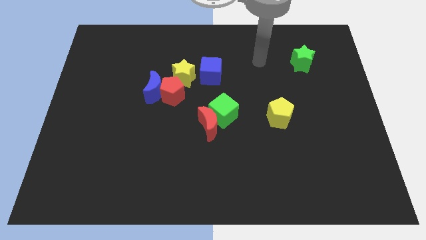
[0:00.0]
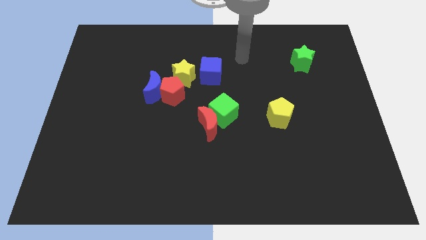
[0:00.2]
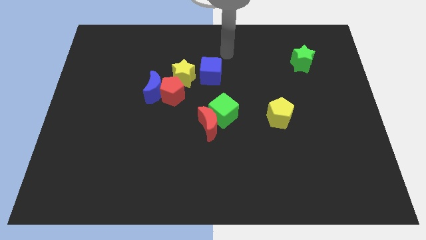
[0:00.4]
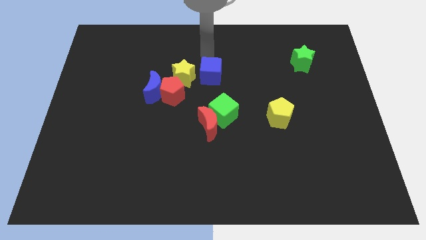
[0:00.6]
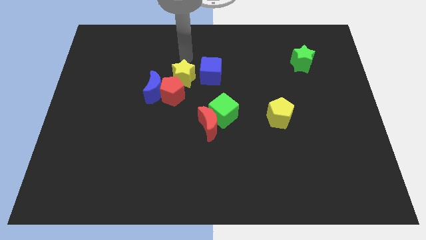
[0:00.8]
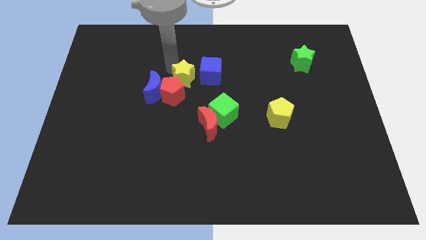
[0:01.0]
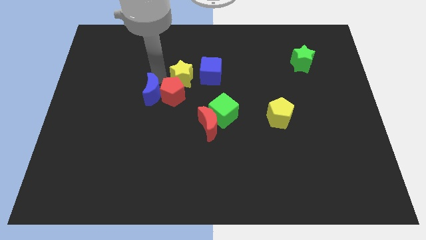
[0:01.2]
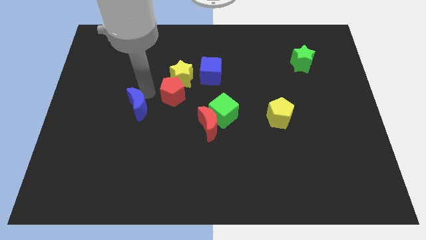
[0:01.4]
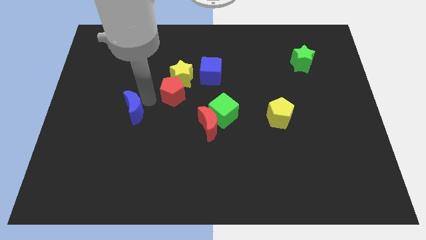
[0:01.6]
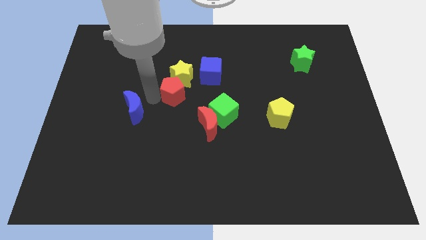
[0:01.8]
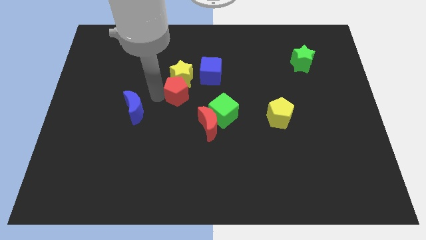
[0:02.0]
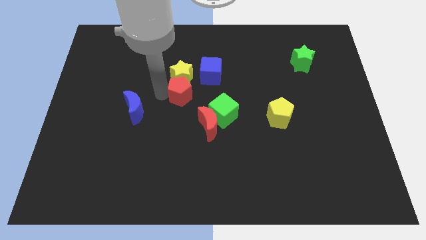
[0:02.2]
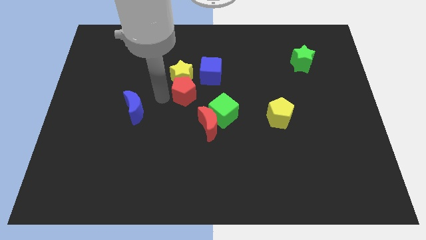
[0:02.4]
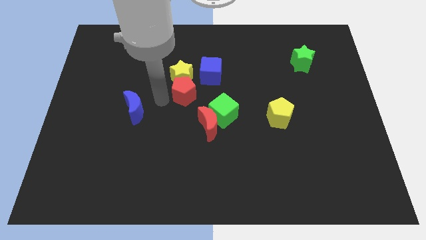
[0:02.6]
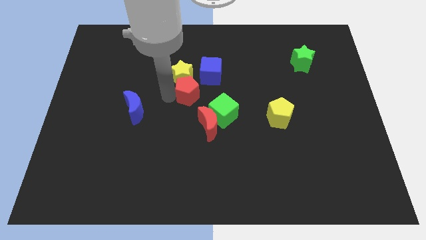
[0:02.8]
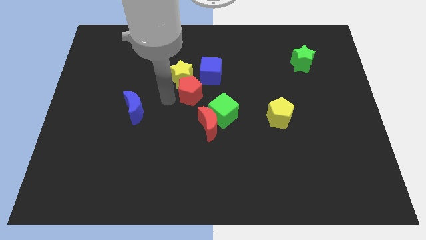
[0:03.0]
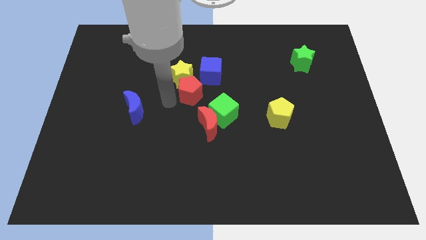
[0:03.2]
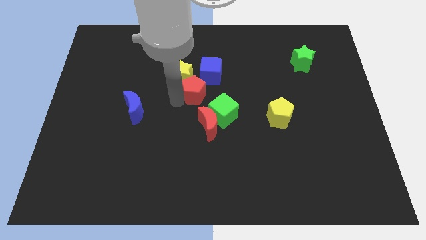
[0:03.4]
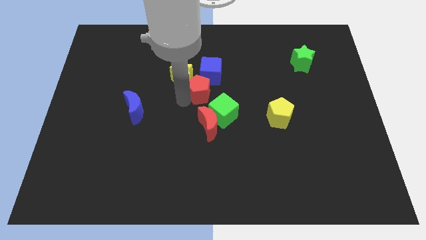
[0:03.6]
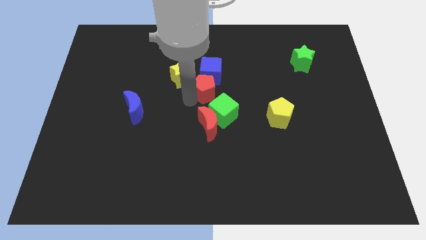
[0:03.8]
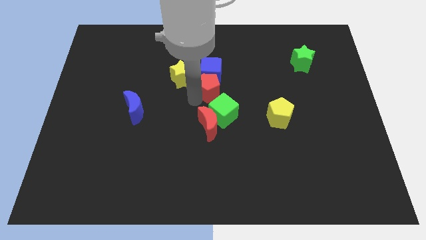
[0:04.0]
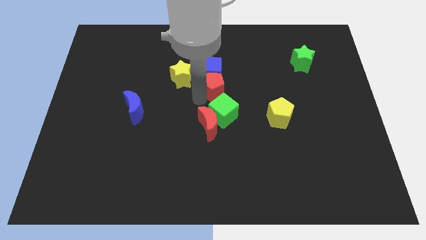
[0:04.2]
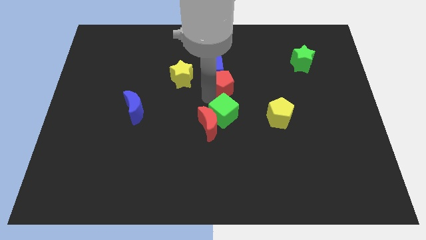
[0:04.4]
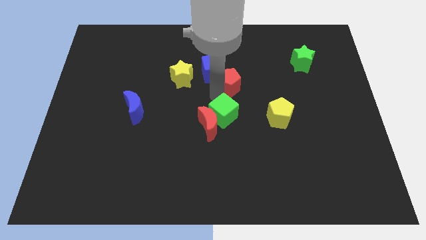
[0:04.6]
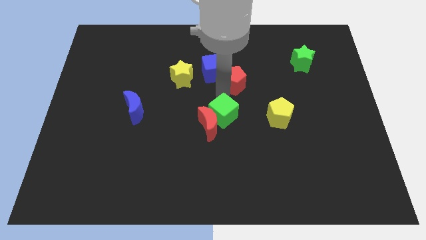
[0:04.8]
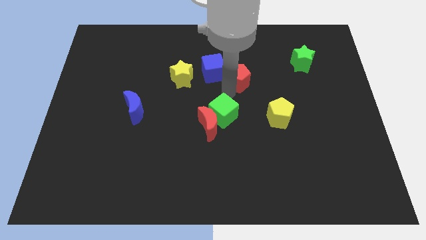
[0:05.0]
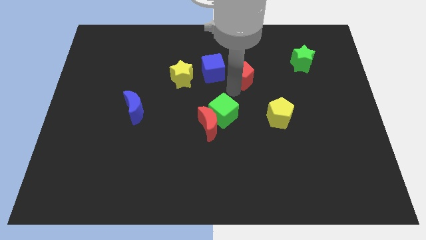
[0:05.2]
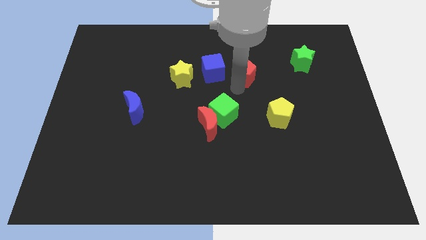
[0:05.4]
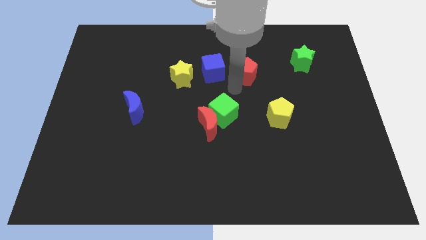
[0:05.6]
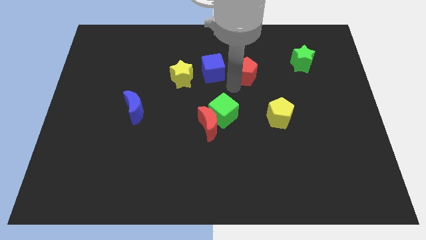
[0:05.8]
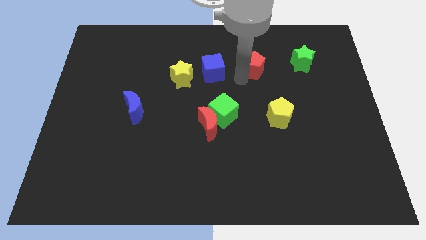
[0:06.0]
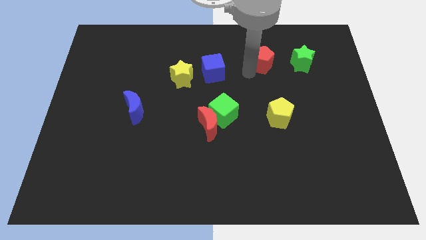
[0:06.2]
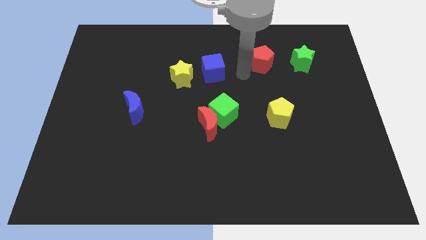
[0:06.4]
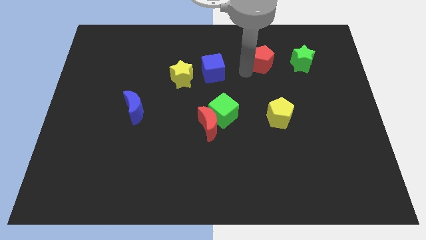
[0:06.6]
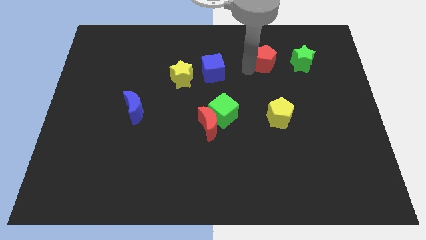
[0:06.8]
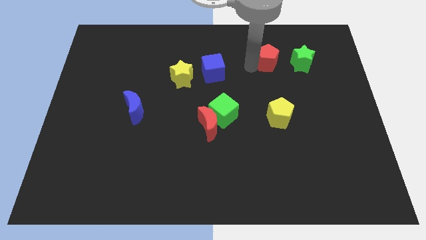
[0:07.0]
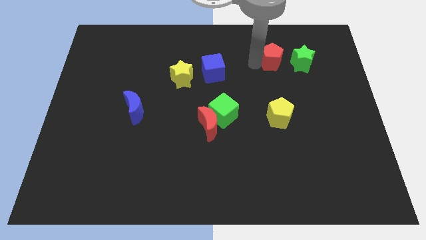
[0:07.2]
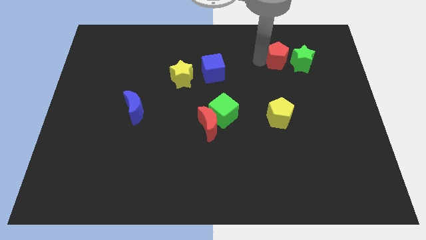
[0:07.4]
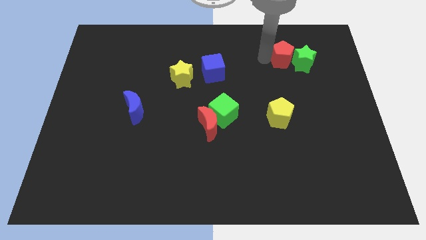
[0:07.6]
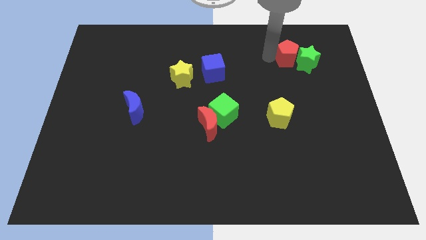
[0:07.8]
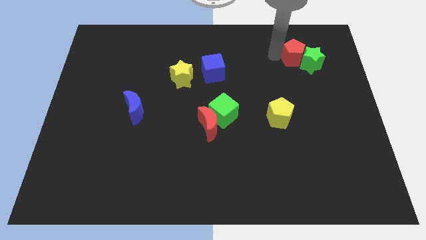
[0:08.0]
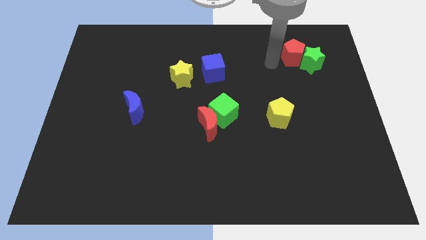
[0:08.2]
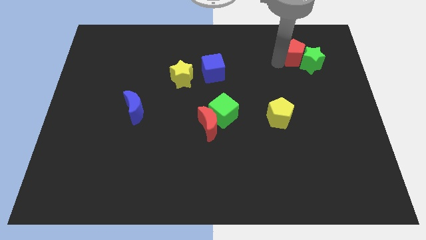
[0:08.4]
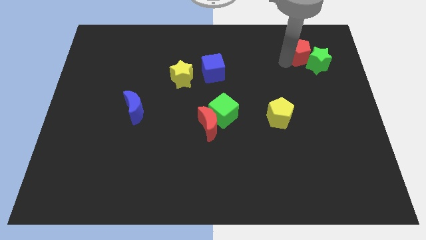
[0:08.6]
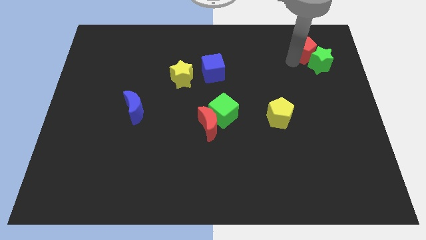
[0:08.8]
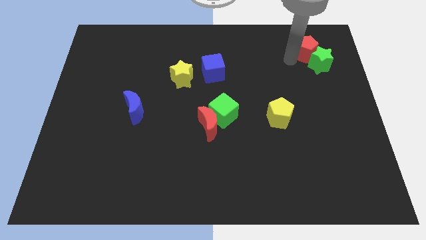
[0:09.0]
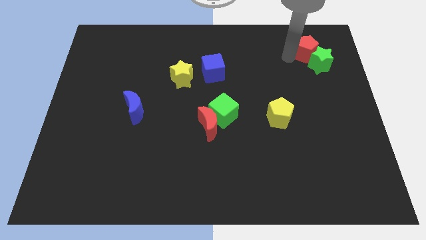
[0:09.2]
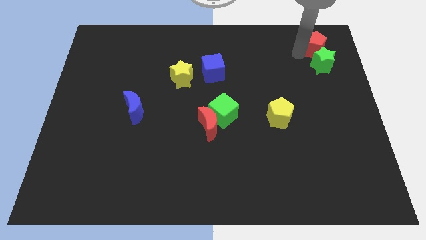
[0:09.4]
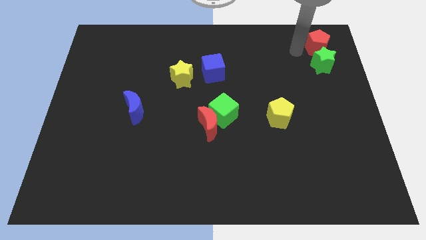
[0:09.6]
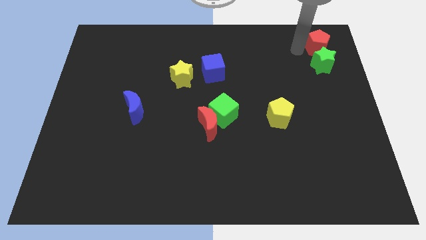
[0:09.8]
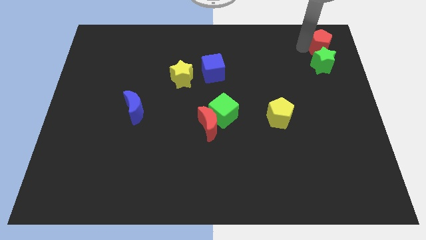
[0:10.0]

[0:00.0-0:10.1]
slide the red pentagon to the top right
